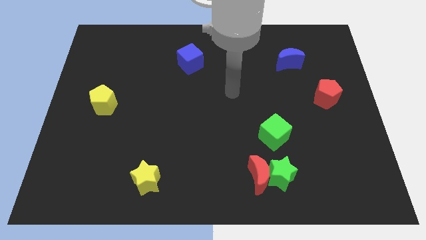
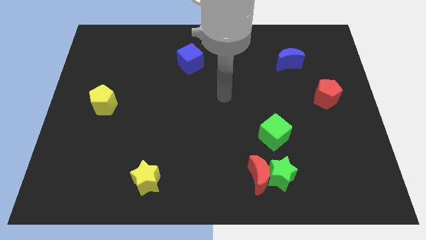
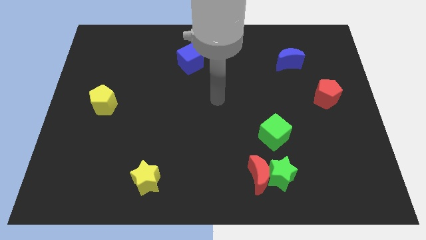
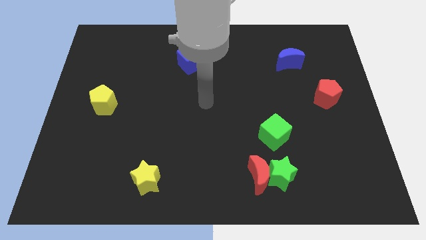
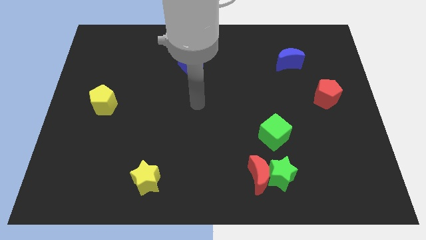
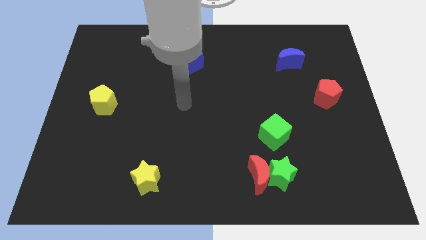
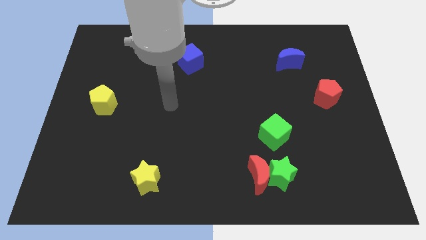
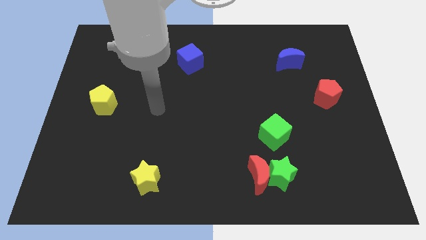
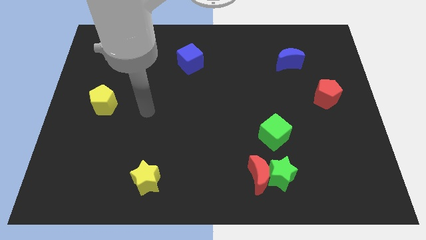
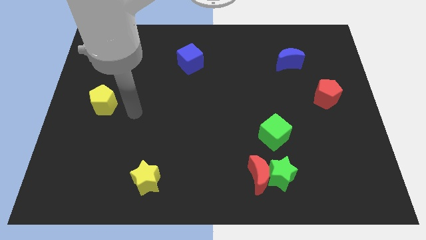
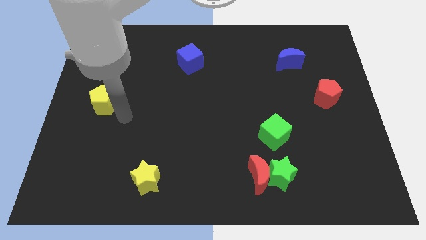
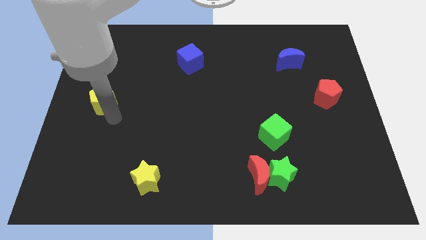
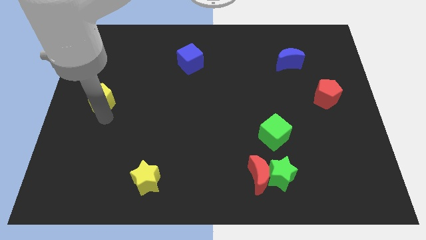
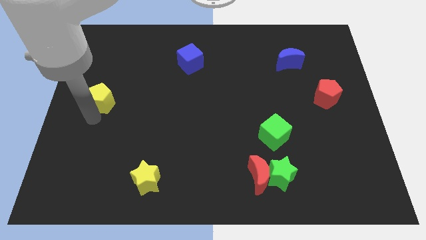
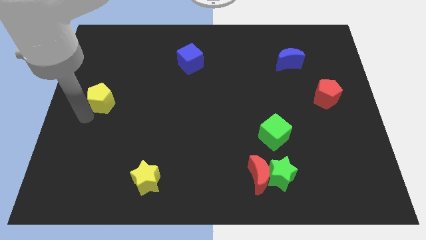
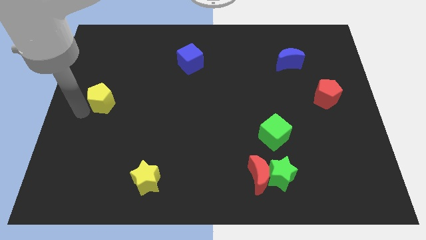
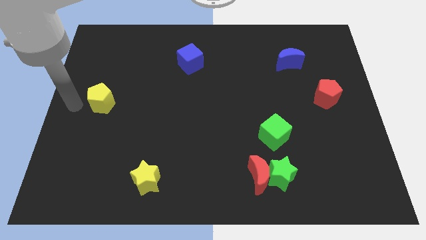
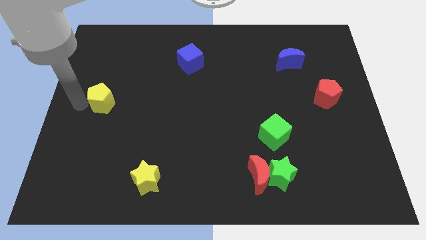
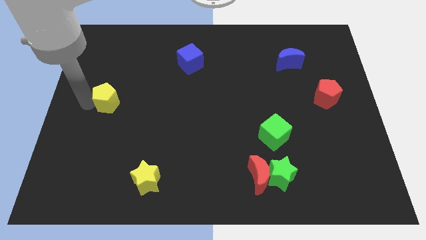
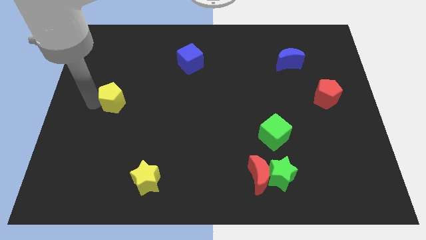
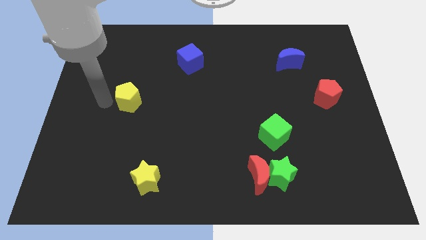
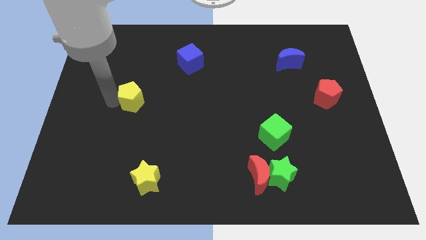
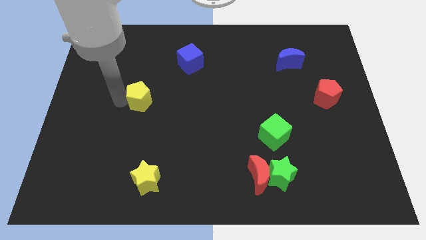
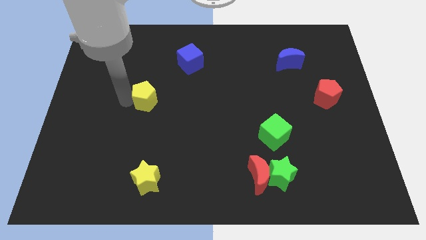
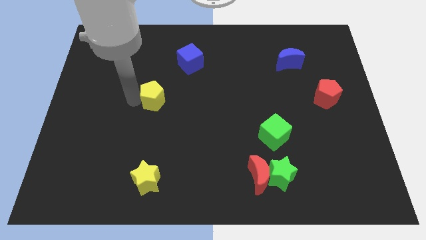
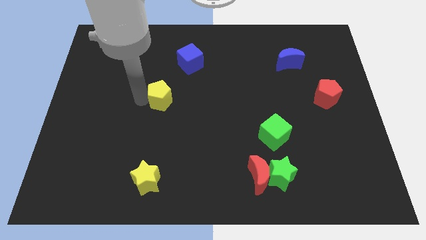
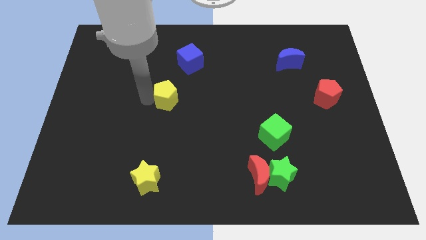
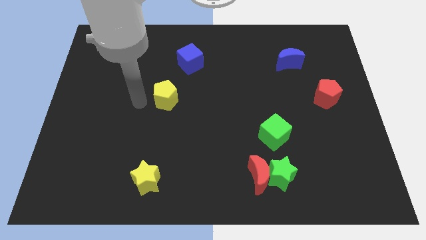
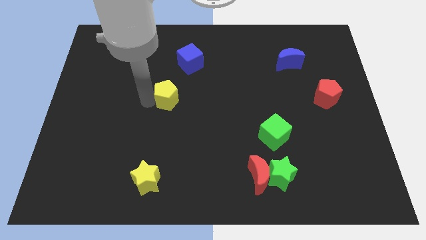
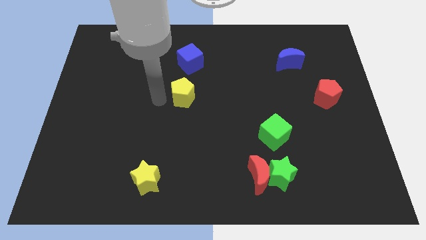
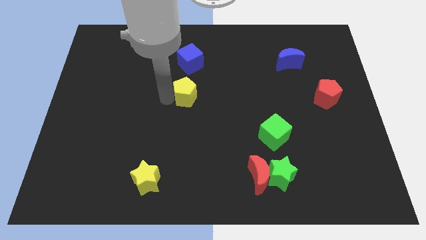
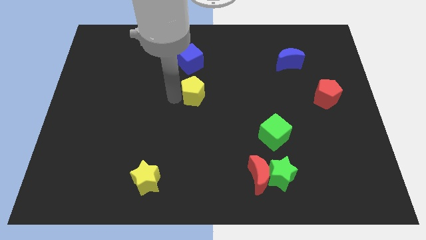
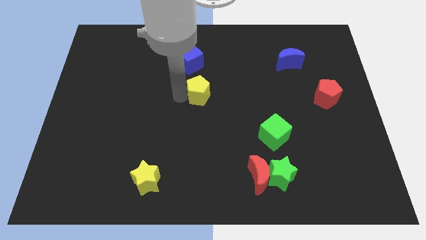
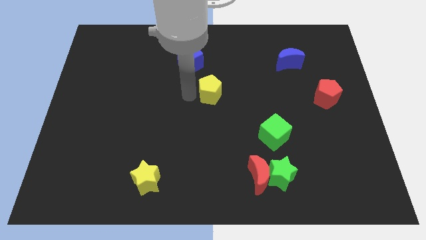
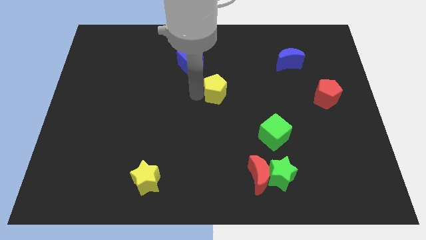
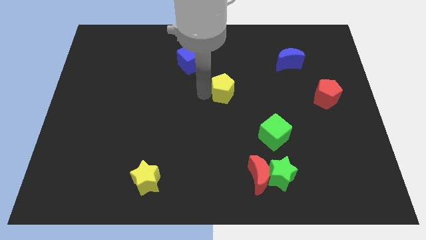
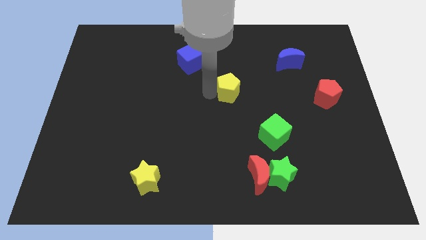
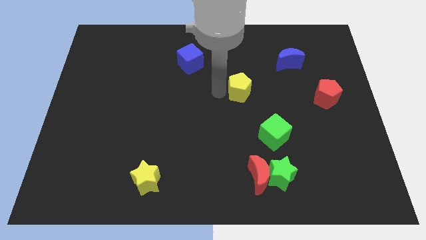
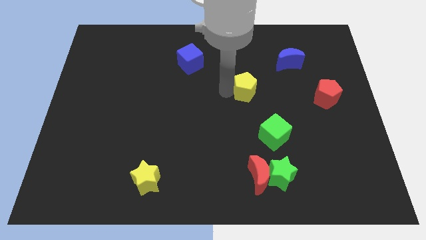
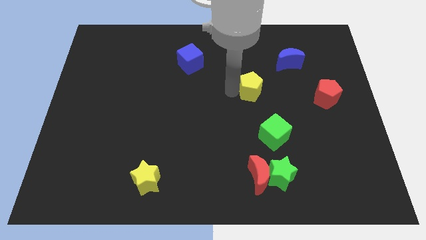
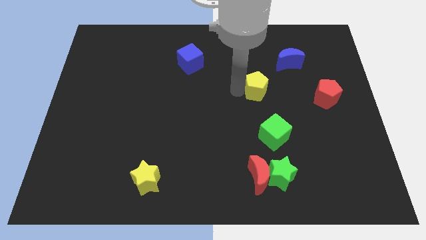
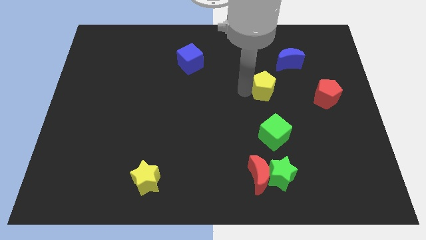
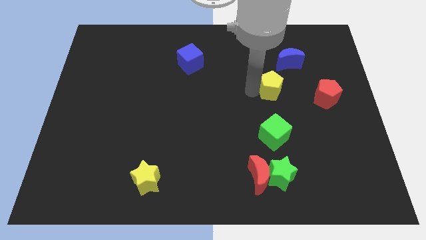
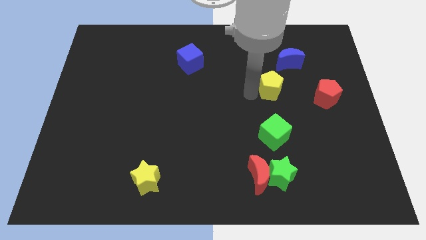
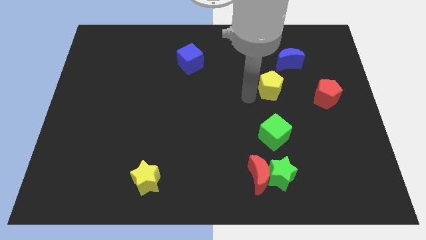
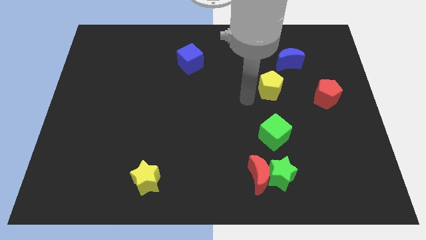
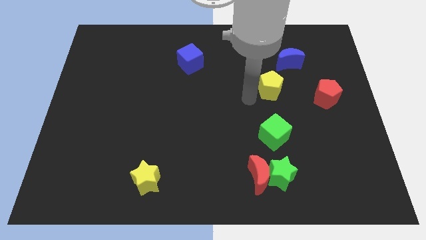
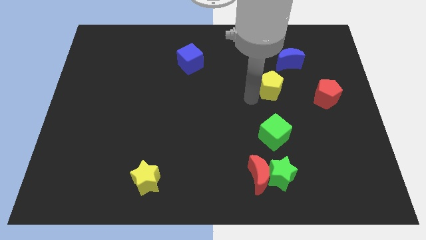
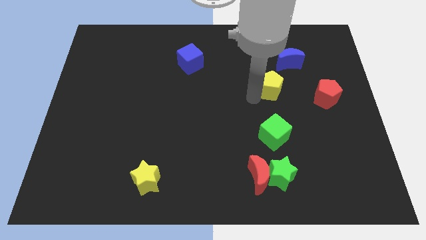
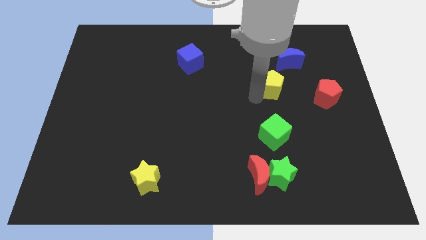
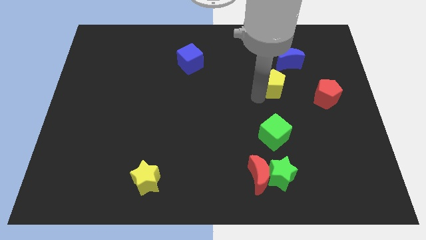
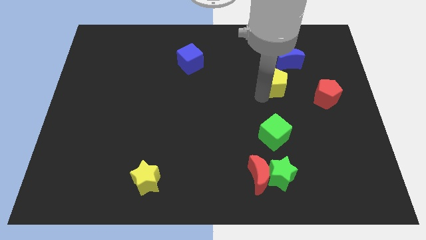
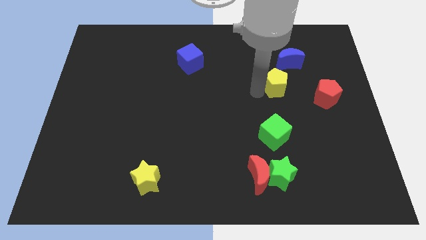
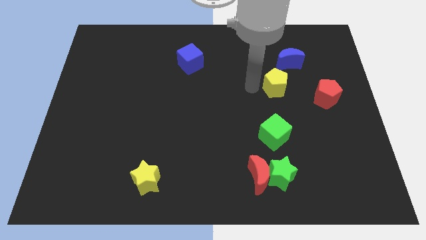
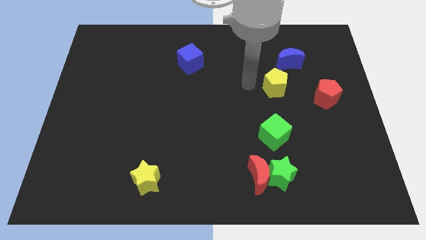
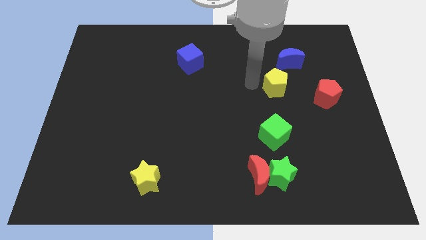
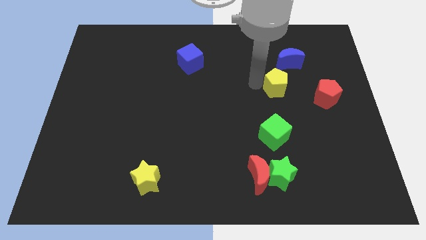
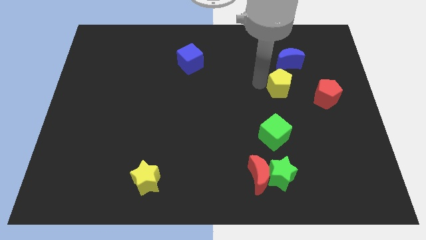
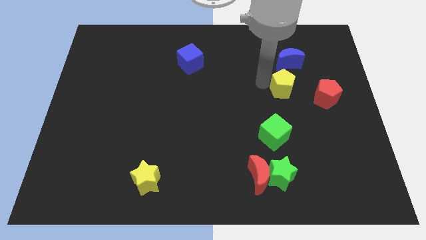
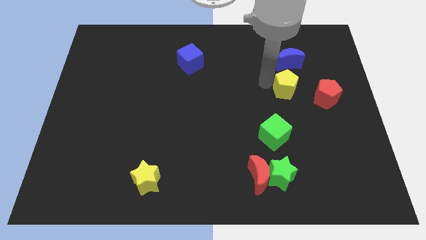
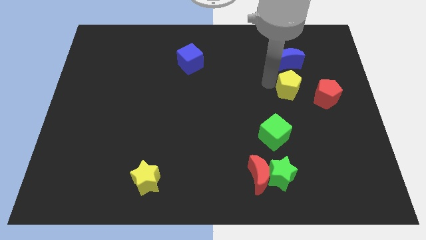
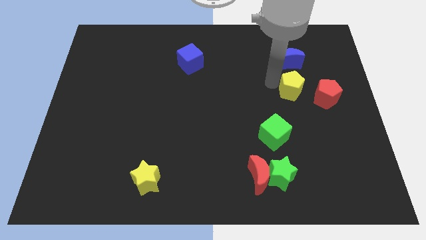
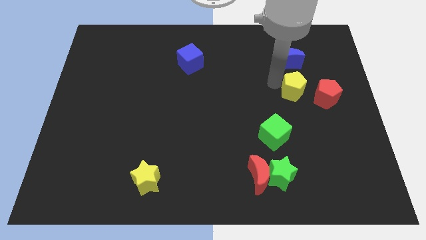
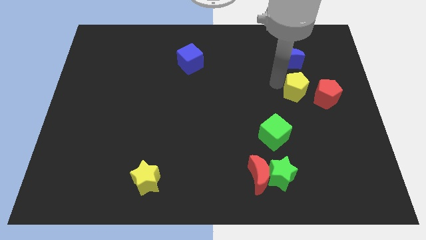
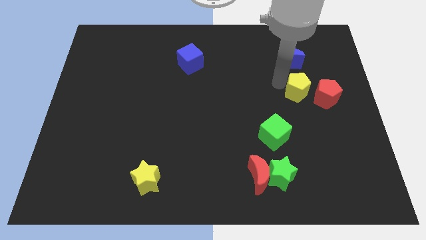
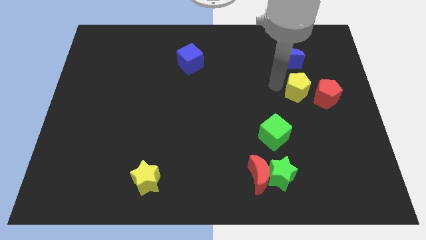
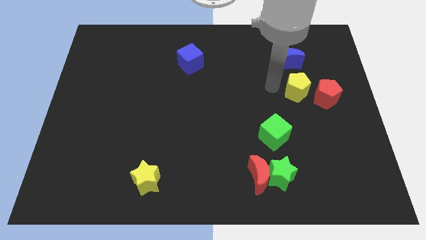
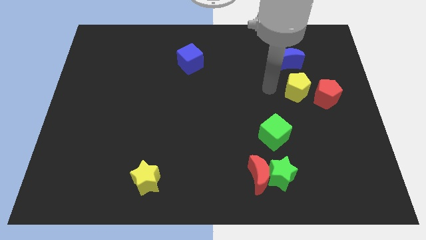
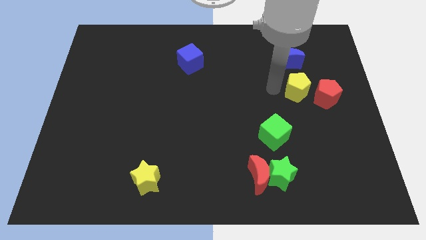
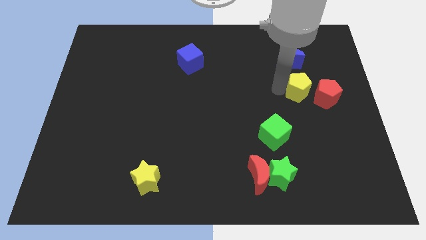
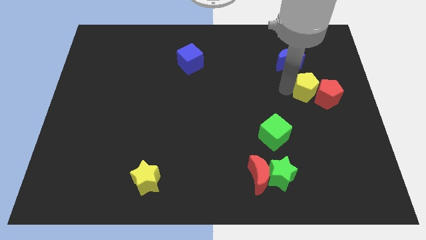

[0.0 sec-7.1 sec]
push the yellow pentagon to the red pentagon

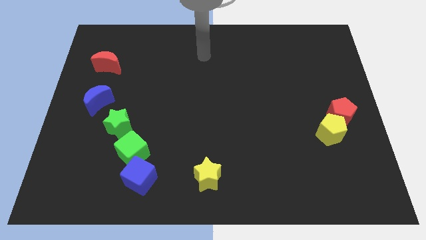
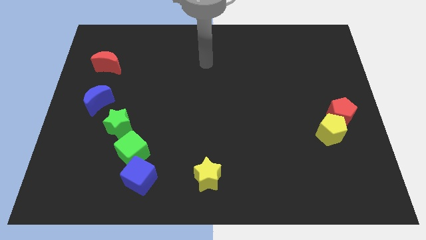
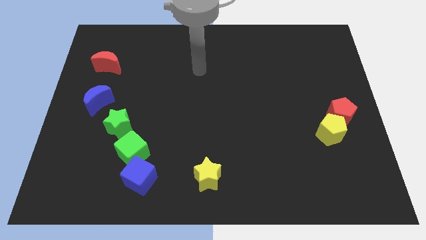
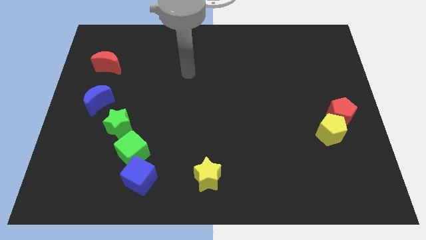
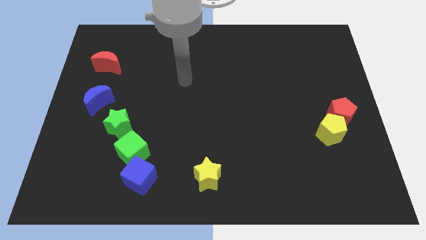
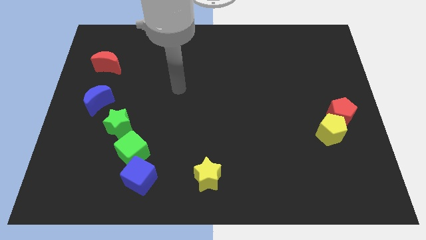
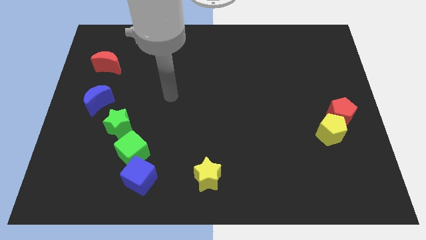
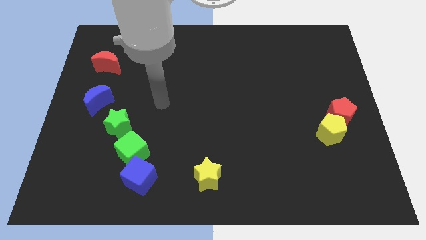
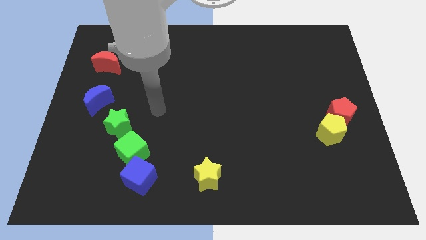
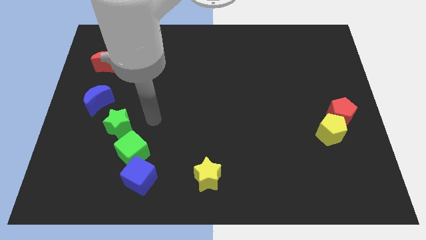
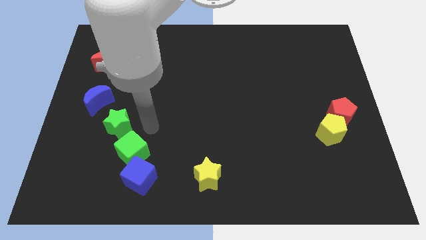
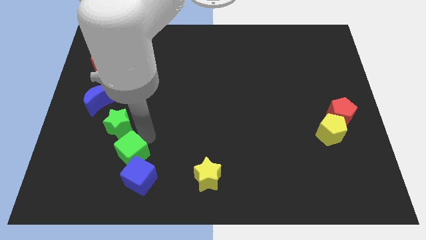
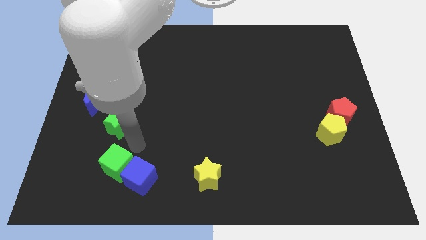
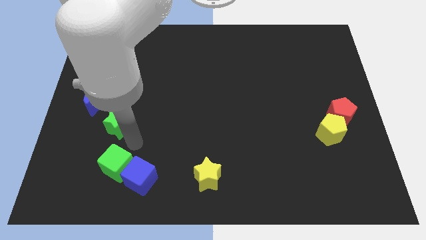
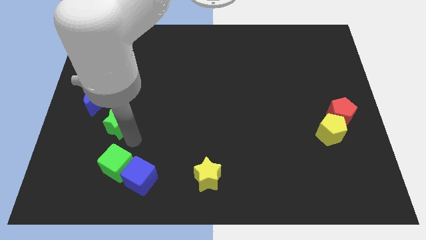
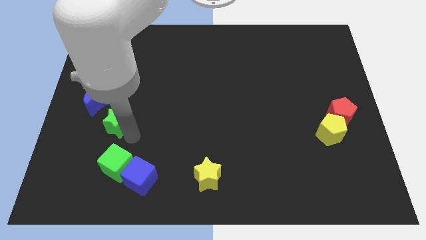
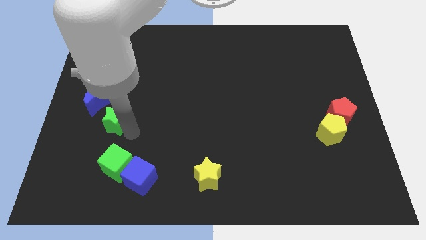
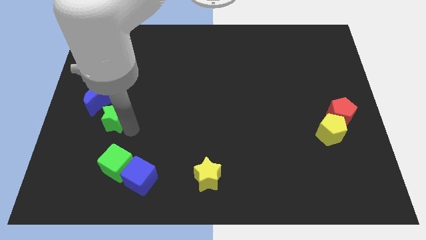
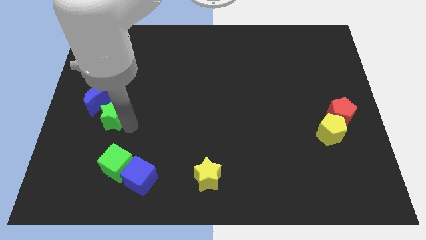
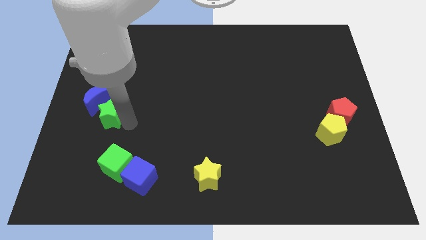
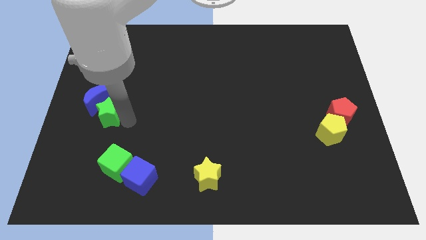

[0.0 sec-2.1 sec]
push the green star to the blue moon
